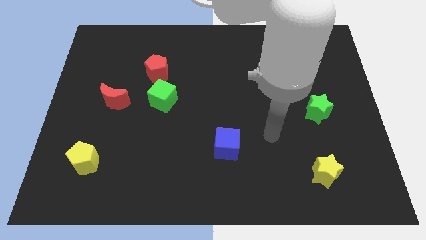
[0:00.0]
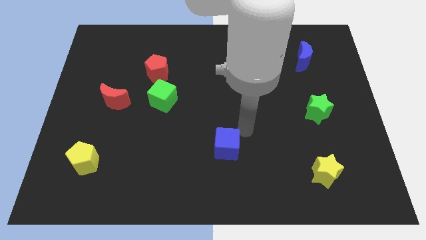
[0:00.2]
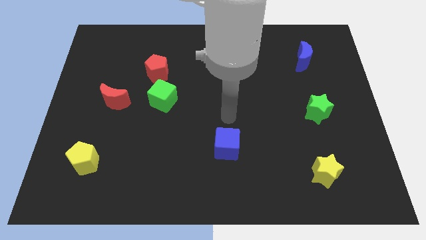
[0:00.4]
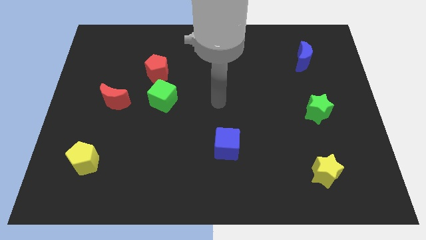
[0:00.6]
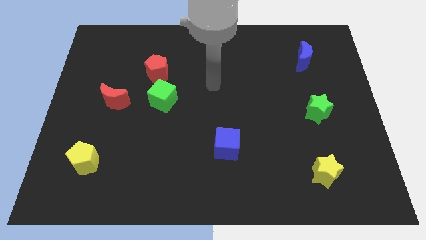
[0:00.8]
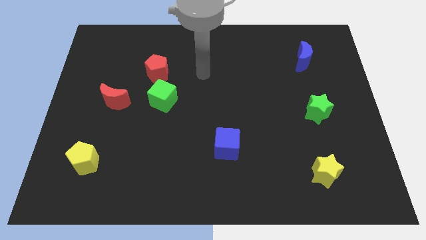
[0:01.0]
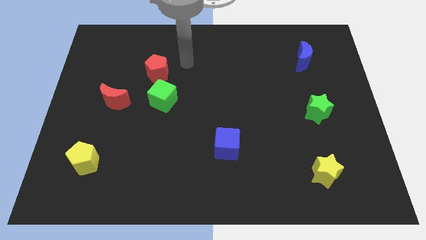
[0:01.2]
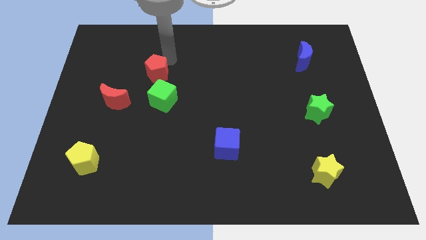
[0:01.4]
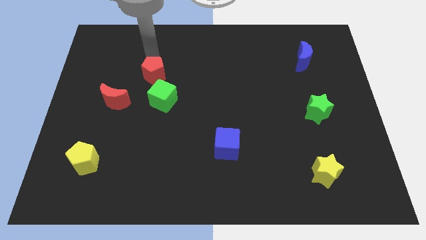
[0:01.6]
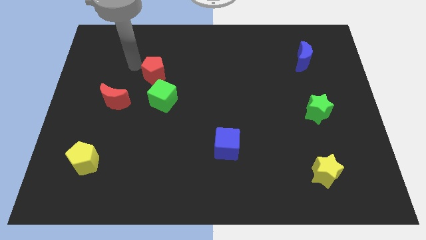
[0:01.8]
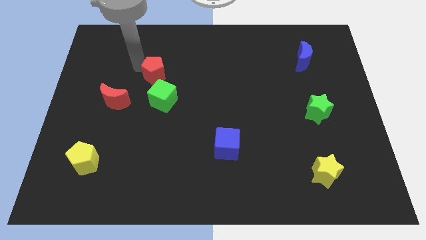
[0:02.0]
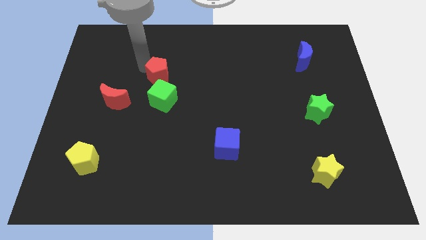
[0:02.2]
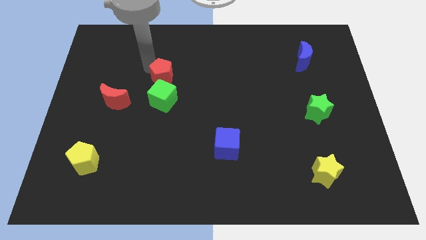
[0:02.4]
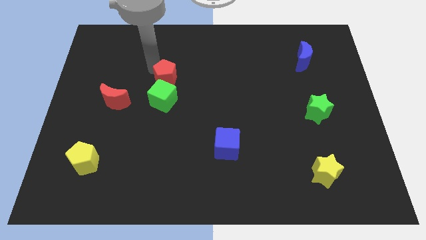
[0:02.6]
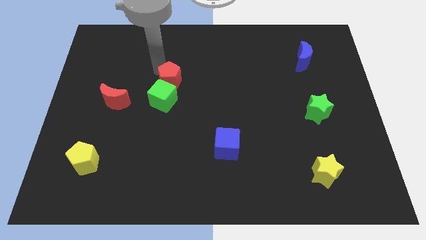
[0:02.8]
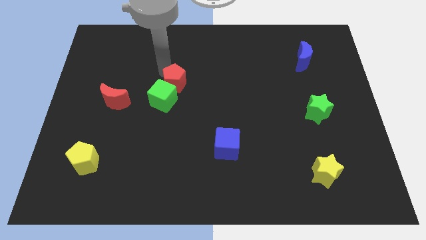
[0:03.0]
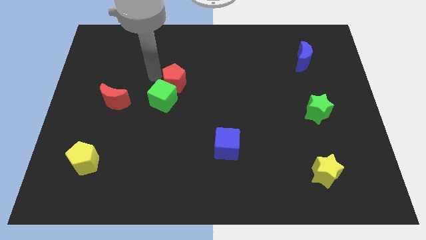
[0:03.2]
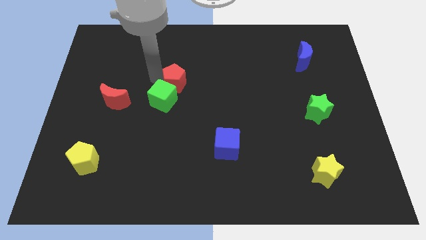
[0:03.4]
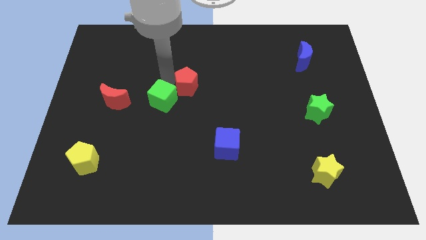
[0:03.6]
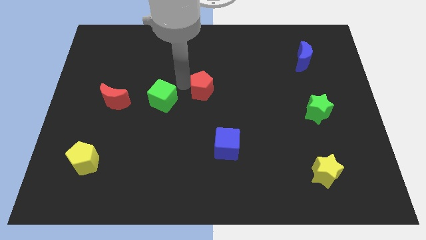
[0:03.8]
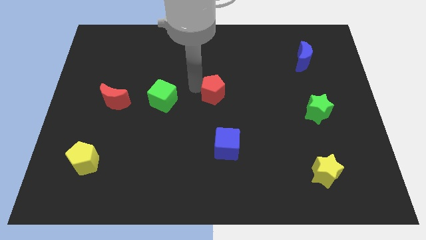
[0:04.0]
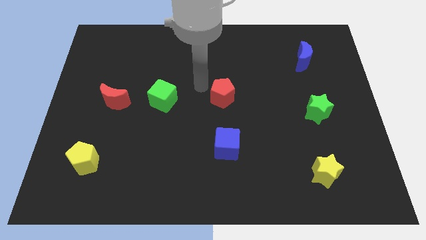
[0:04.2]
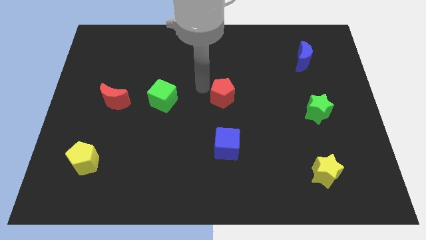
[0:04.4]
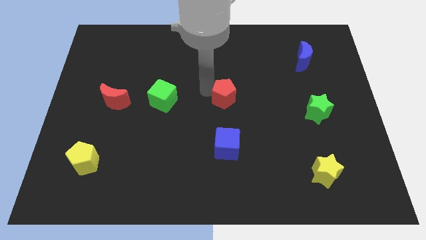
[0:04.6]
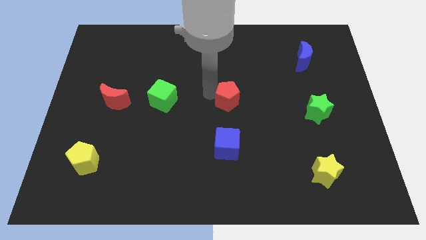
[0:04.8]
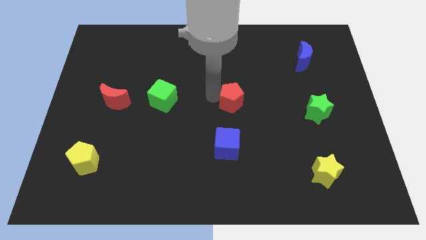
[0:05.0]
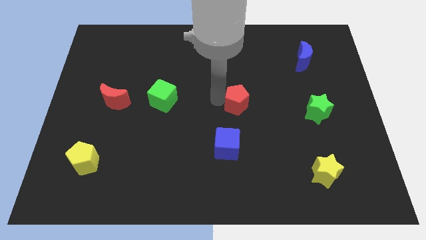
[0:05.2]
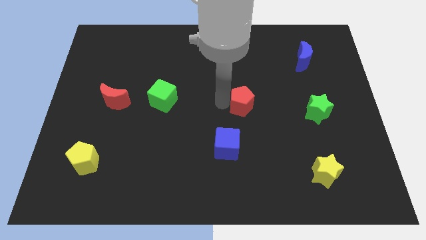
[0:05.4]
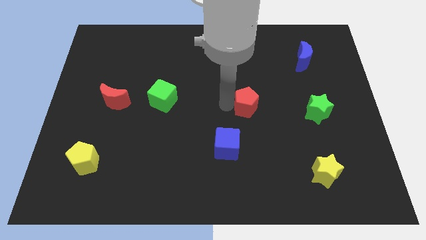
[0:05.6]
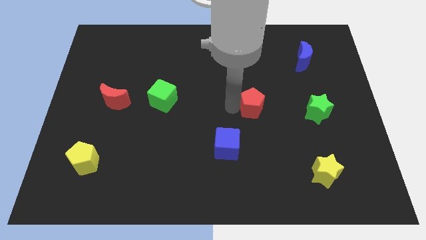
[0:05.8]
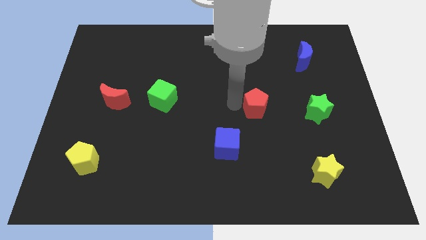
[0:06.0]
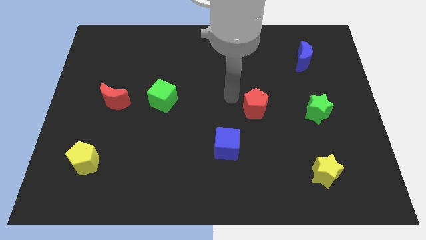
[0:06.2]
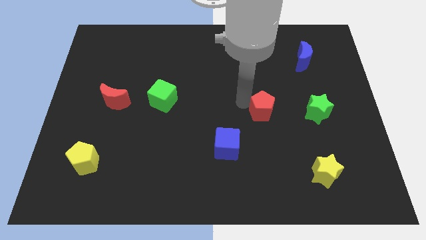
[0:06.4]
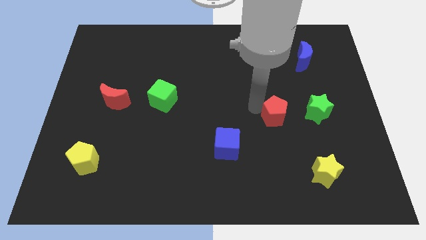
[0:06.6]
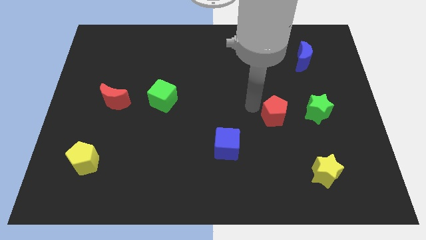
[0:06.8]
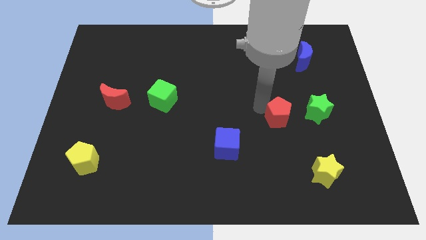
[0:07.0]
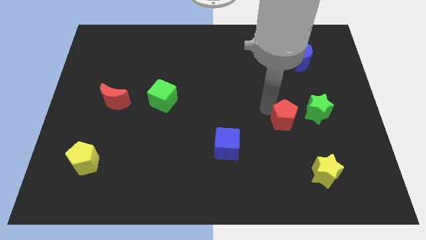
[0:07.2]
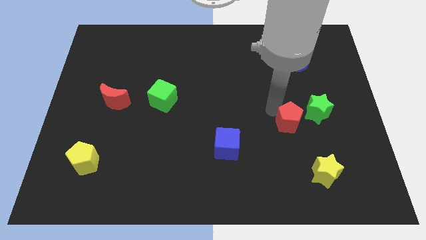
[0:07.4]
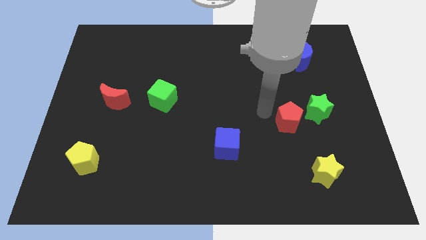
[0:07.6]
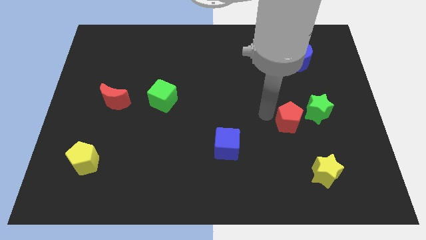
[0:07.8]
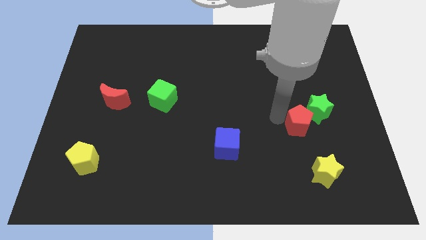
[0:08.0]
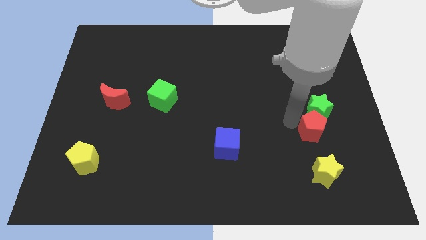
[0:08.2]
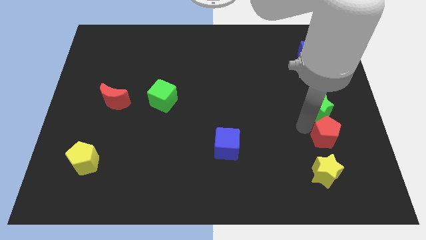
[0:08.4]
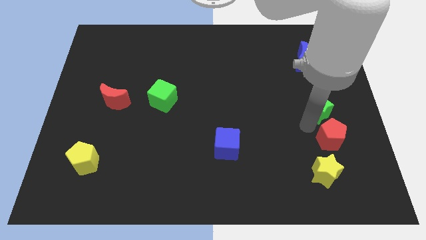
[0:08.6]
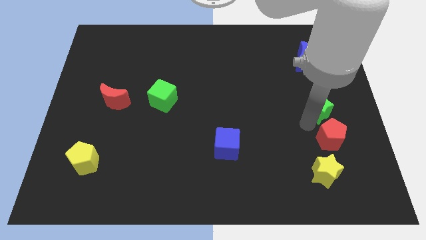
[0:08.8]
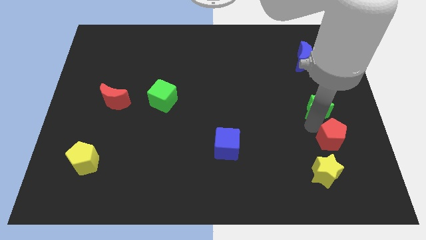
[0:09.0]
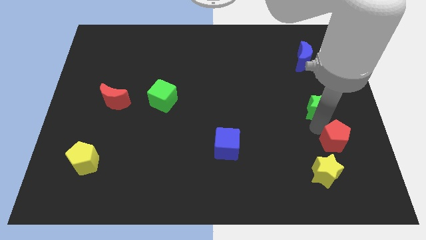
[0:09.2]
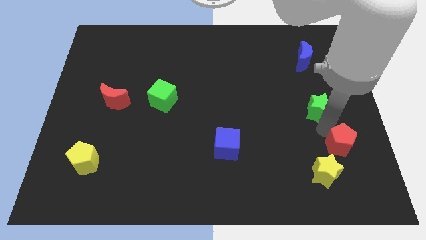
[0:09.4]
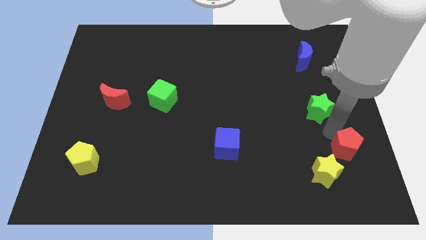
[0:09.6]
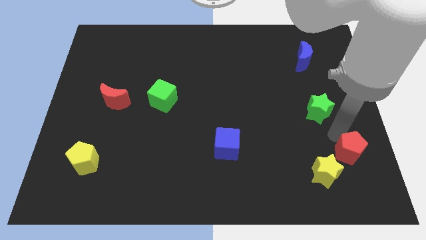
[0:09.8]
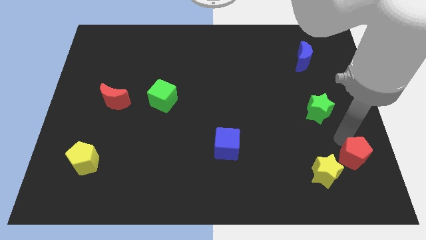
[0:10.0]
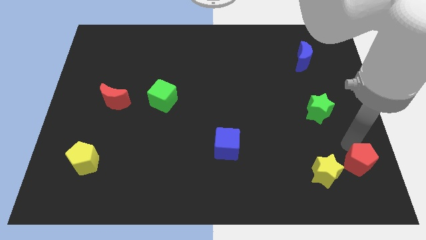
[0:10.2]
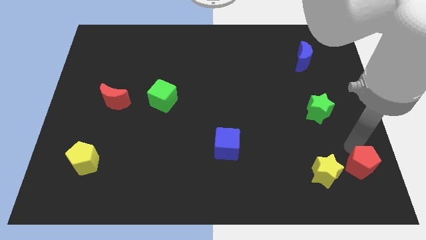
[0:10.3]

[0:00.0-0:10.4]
put the red pentagon to the bottom right of the board

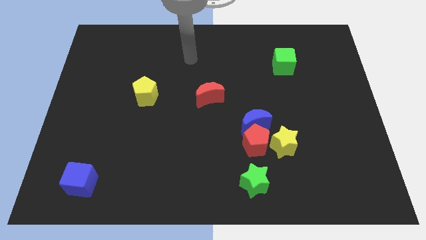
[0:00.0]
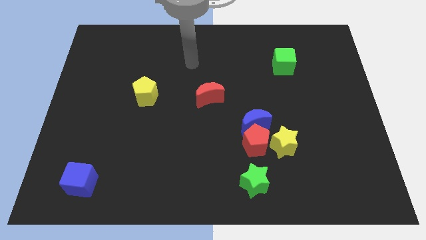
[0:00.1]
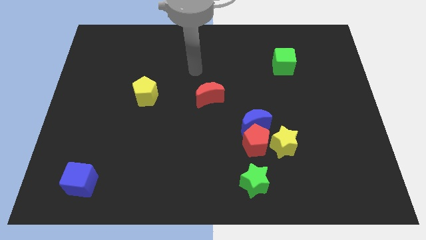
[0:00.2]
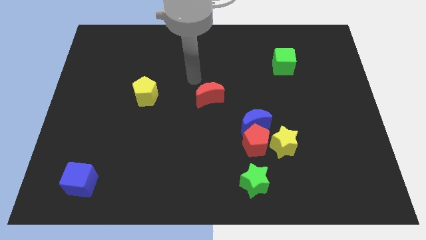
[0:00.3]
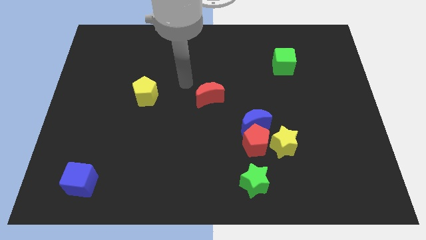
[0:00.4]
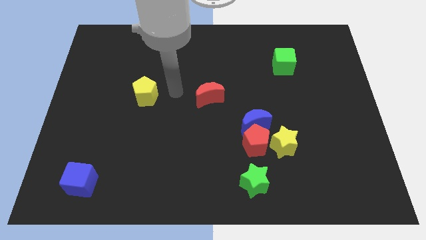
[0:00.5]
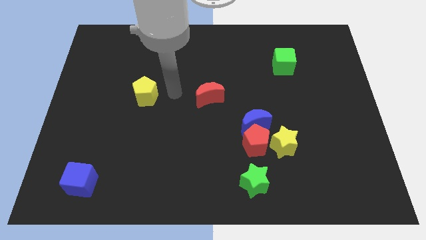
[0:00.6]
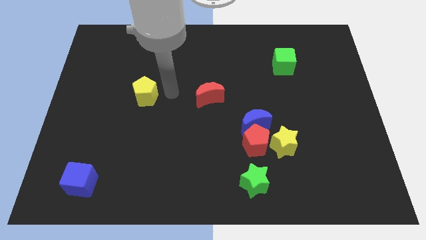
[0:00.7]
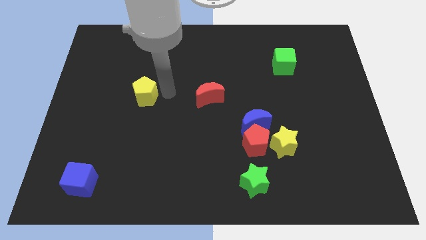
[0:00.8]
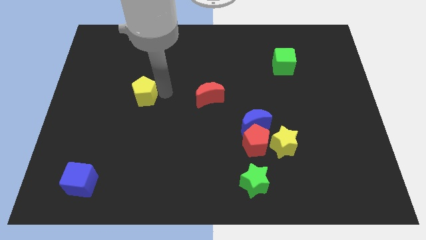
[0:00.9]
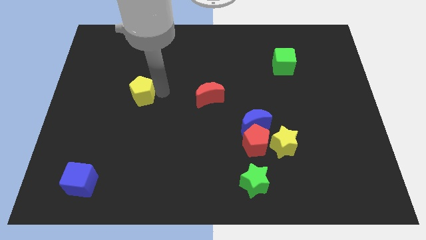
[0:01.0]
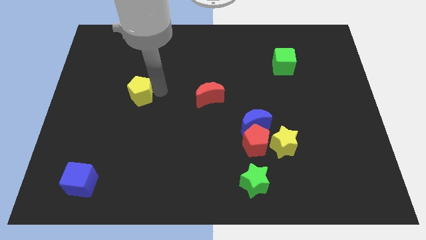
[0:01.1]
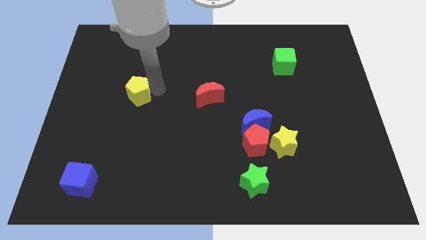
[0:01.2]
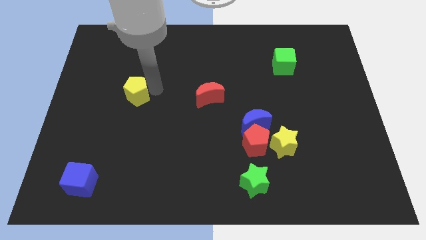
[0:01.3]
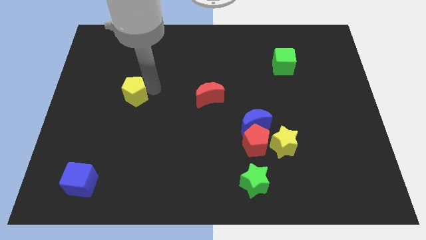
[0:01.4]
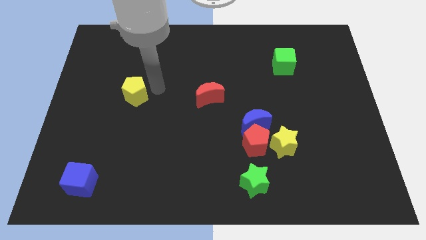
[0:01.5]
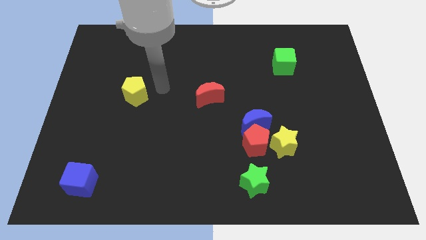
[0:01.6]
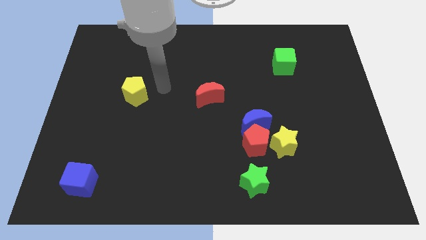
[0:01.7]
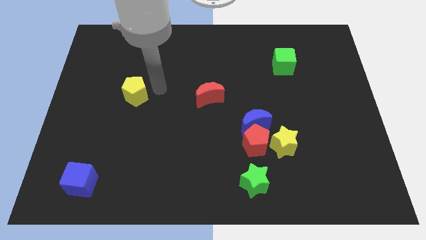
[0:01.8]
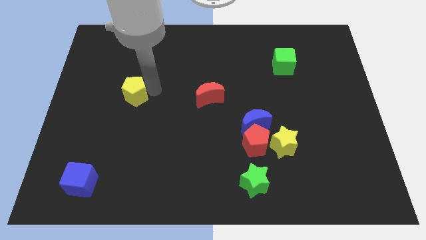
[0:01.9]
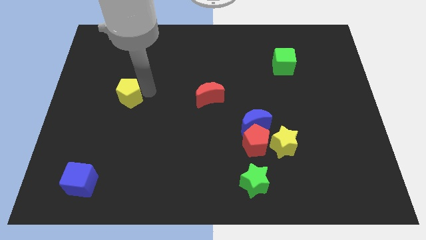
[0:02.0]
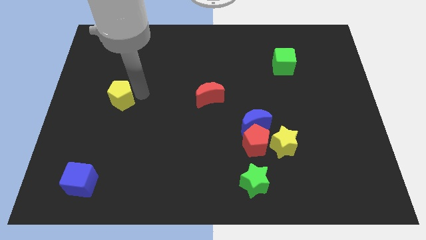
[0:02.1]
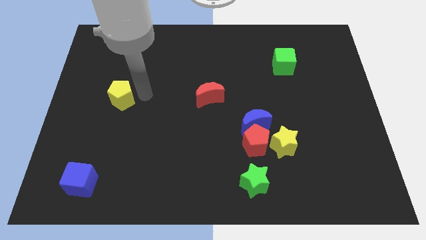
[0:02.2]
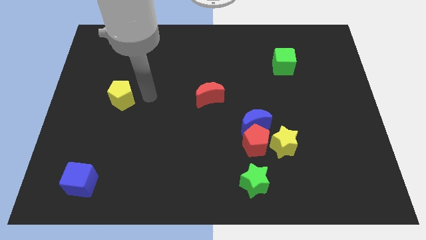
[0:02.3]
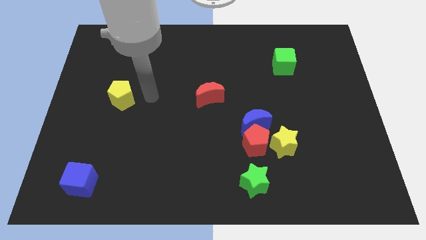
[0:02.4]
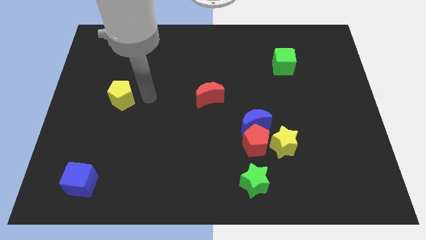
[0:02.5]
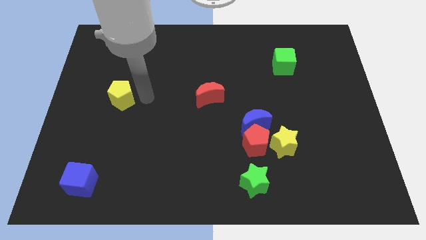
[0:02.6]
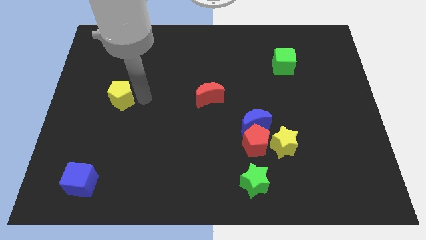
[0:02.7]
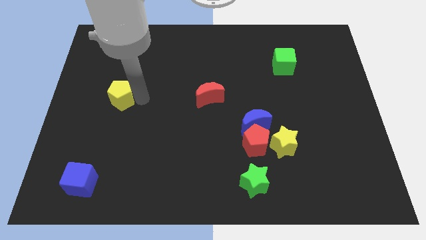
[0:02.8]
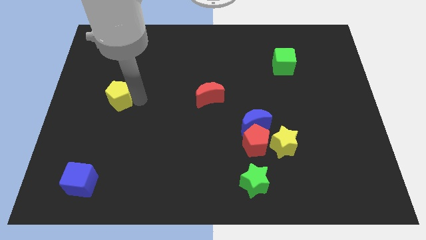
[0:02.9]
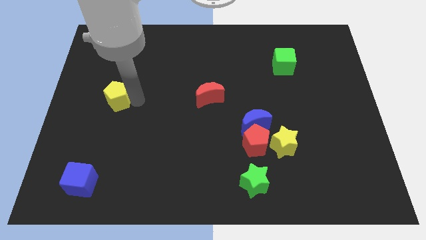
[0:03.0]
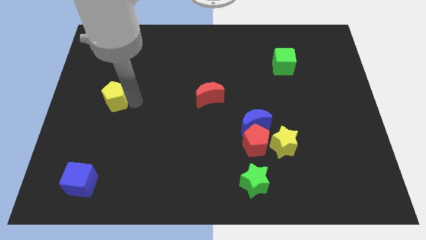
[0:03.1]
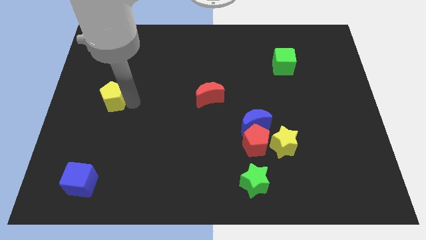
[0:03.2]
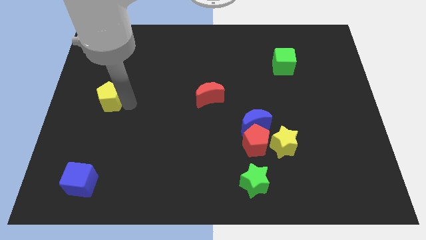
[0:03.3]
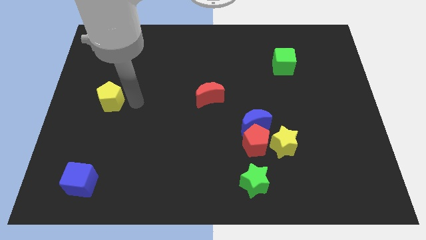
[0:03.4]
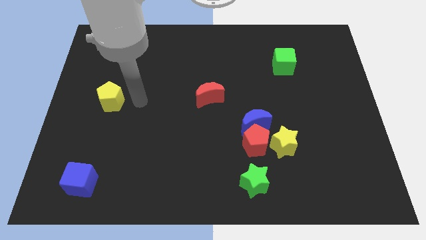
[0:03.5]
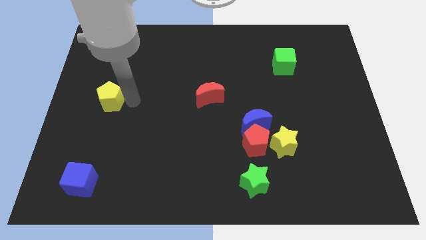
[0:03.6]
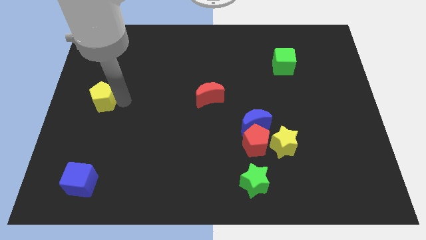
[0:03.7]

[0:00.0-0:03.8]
put the yellow pentagon to the left side
